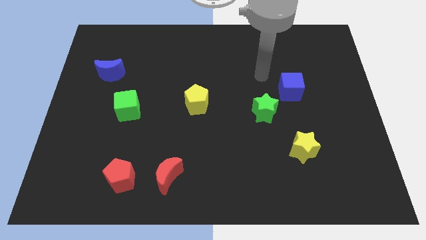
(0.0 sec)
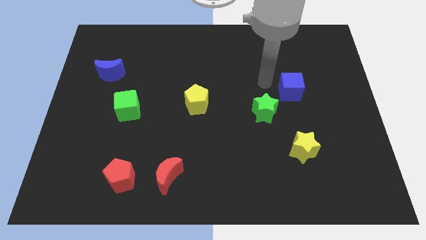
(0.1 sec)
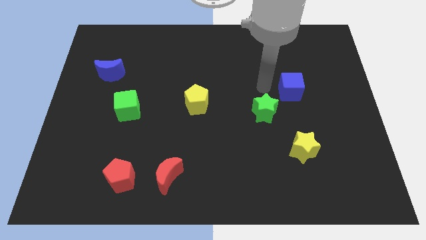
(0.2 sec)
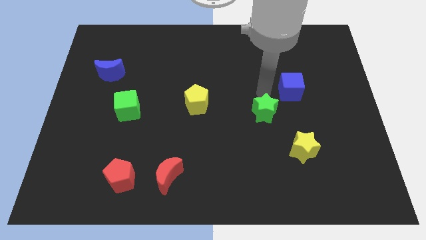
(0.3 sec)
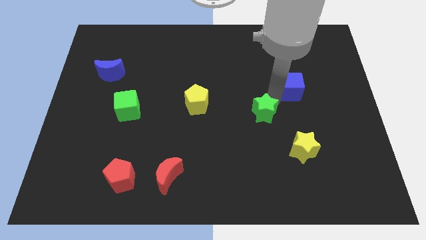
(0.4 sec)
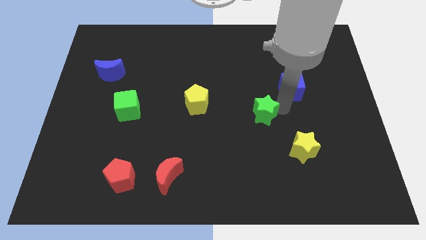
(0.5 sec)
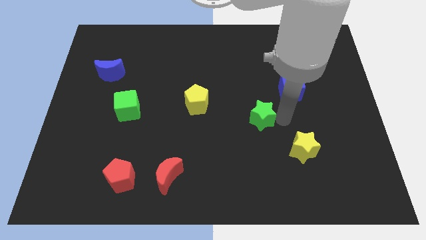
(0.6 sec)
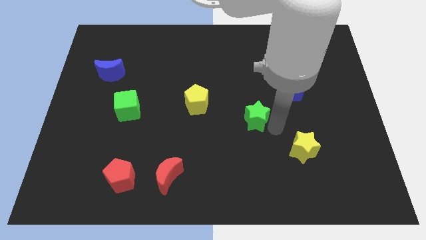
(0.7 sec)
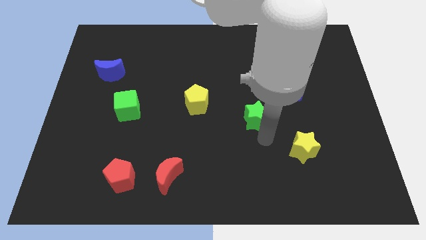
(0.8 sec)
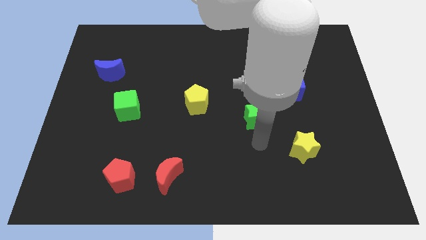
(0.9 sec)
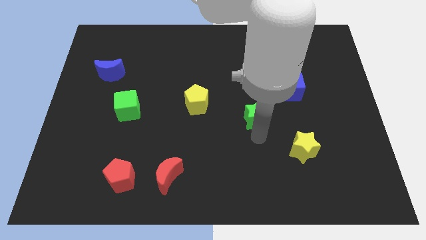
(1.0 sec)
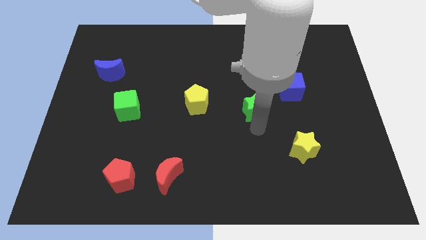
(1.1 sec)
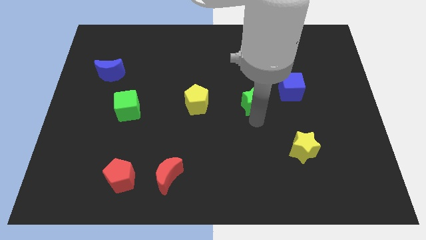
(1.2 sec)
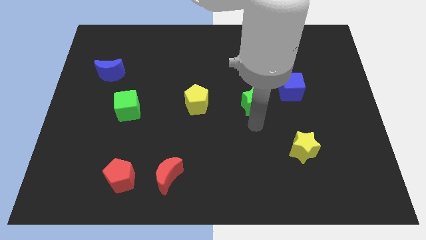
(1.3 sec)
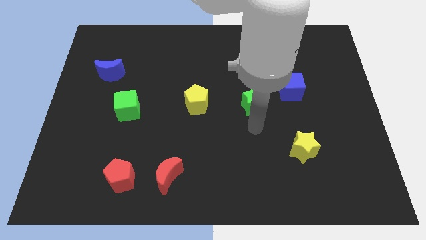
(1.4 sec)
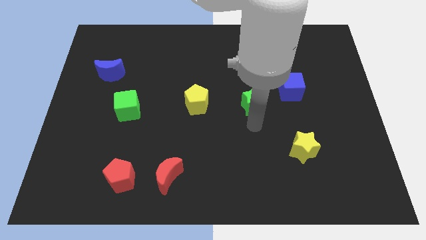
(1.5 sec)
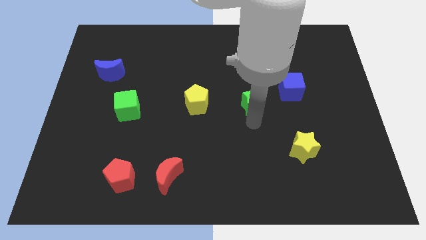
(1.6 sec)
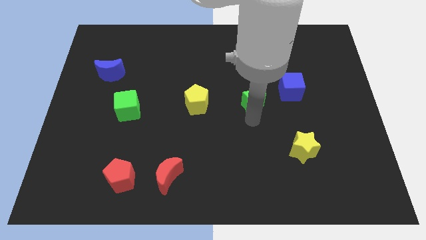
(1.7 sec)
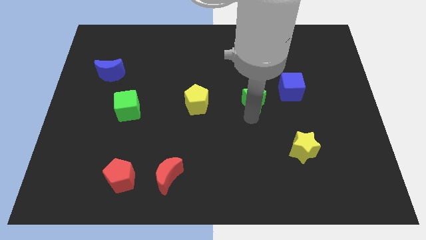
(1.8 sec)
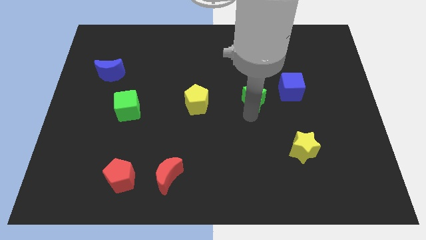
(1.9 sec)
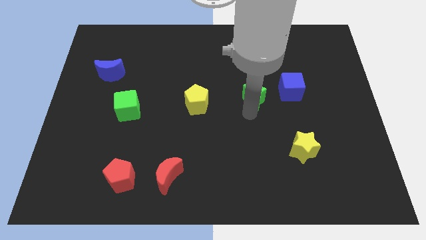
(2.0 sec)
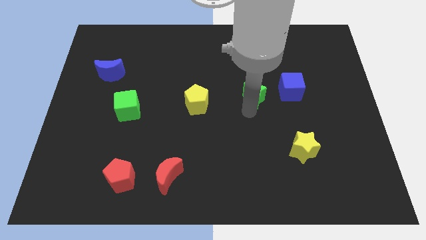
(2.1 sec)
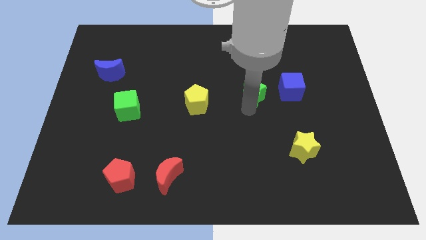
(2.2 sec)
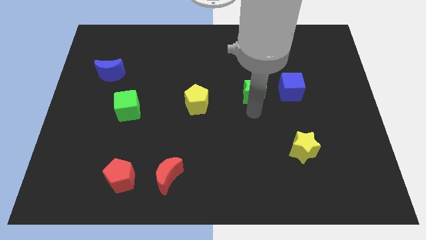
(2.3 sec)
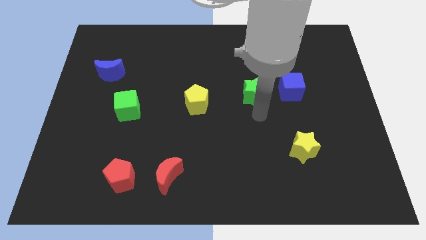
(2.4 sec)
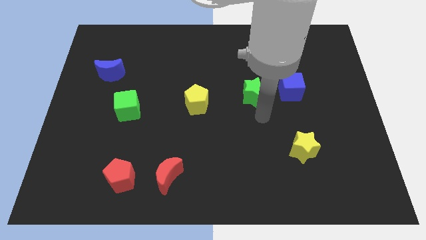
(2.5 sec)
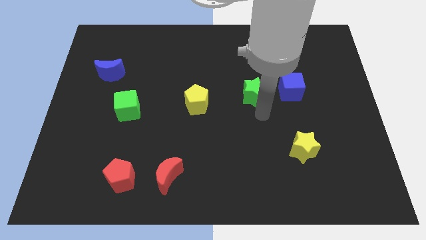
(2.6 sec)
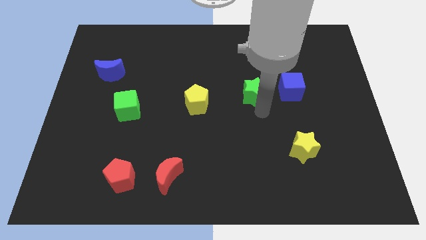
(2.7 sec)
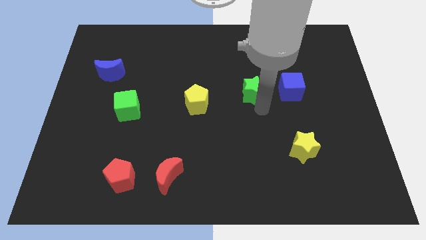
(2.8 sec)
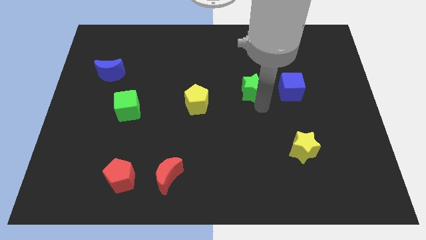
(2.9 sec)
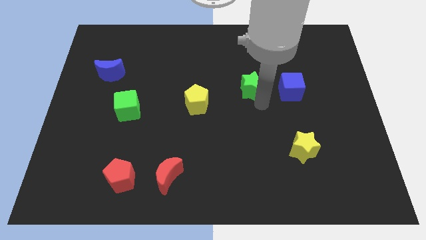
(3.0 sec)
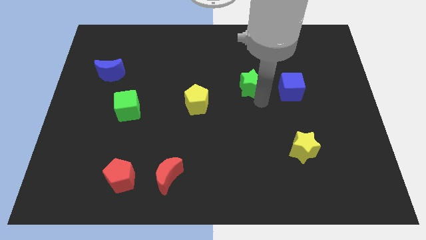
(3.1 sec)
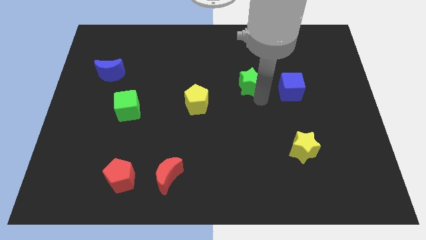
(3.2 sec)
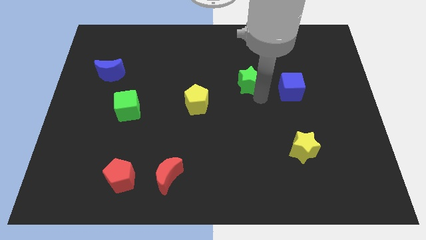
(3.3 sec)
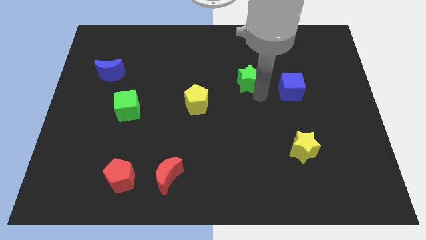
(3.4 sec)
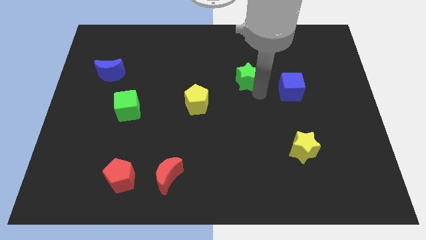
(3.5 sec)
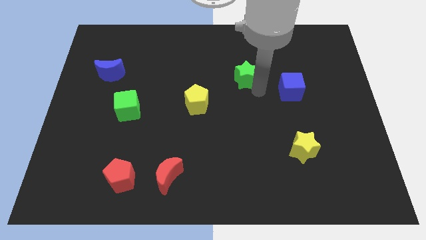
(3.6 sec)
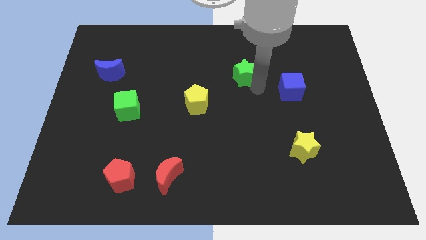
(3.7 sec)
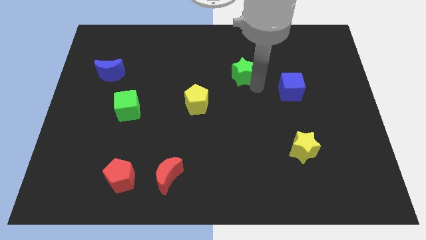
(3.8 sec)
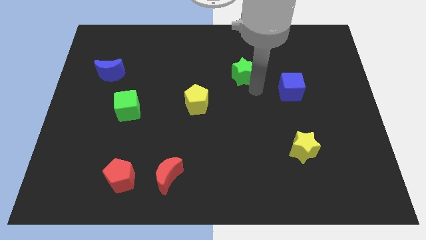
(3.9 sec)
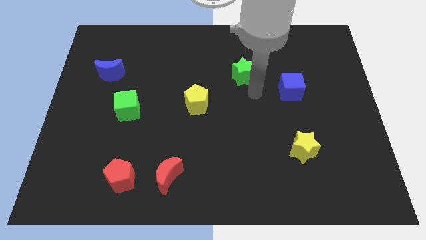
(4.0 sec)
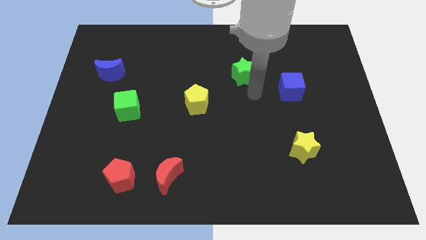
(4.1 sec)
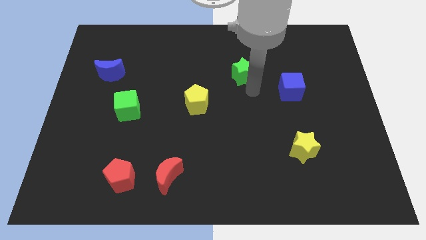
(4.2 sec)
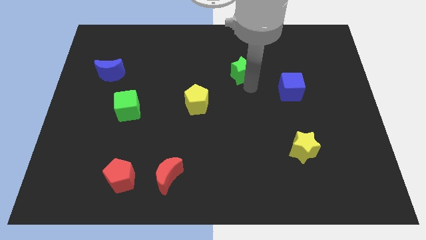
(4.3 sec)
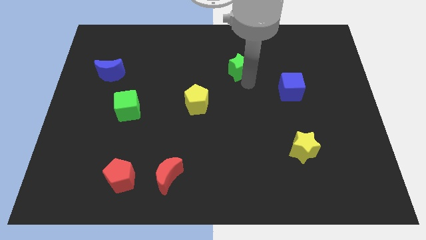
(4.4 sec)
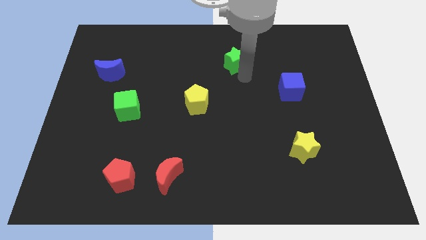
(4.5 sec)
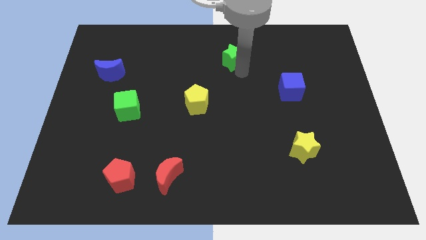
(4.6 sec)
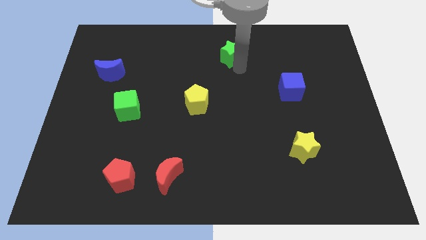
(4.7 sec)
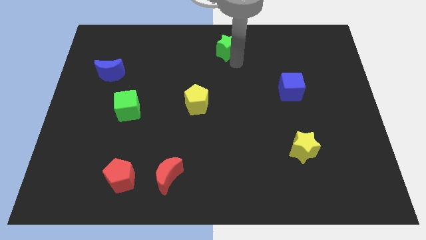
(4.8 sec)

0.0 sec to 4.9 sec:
slide the green star to the towards your base
